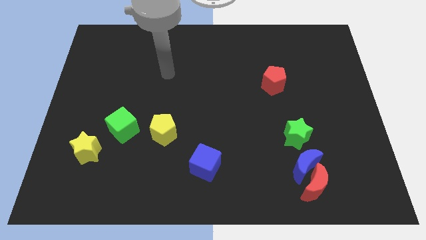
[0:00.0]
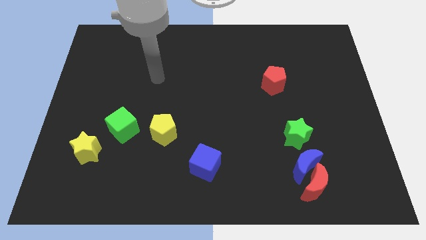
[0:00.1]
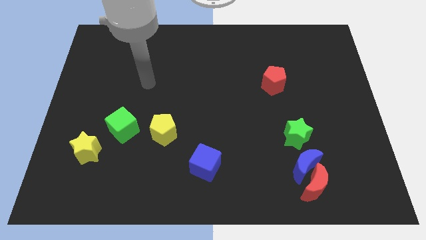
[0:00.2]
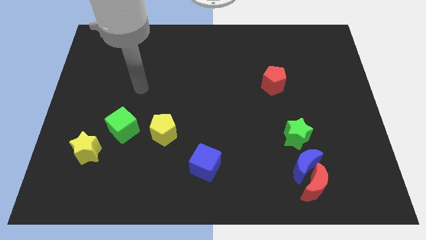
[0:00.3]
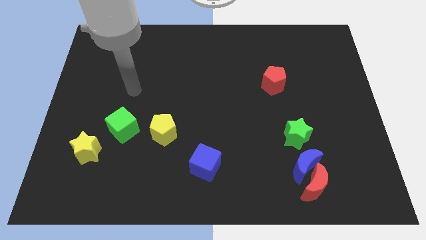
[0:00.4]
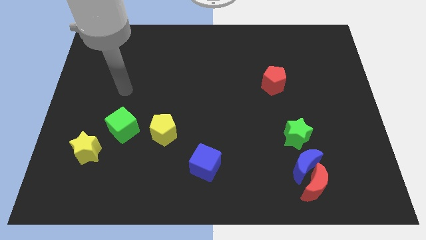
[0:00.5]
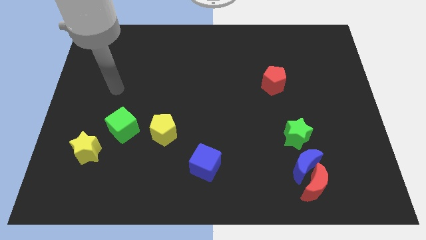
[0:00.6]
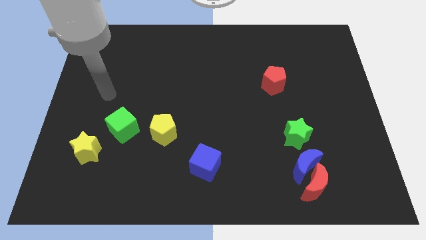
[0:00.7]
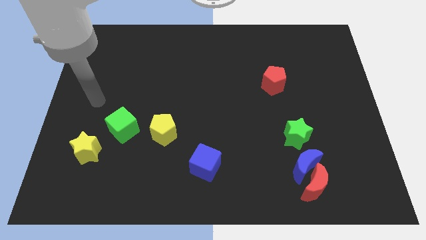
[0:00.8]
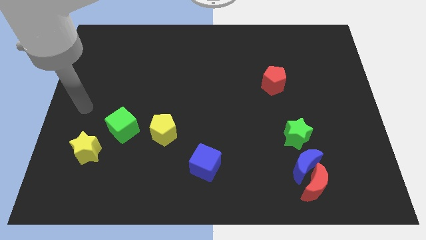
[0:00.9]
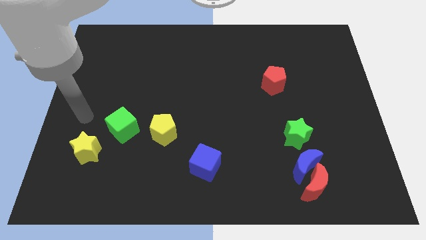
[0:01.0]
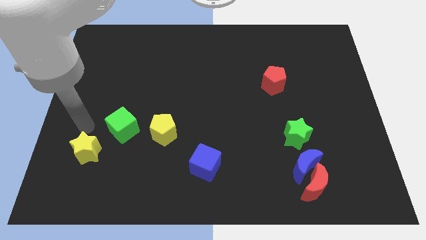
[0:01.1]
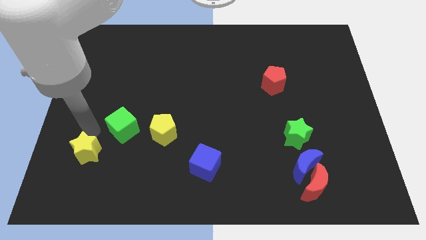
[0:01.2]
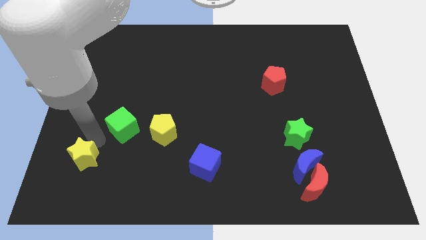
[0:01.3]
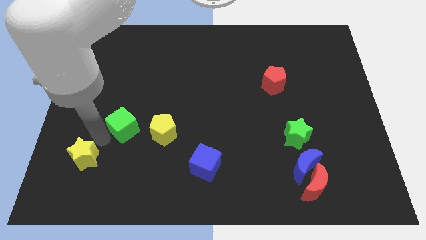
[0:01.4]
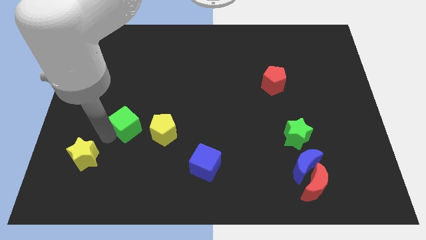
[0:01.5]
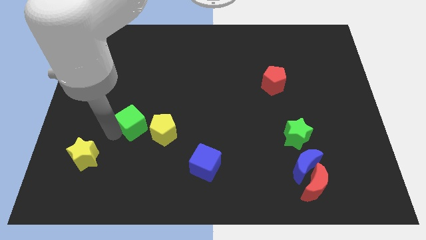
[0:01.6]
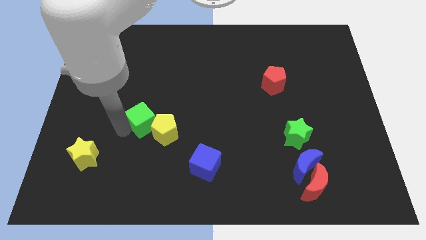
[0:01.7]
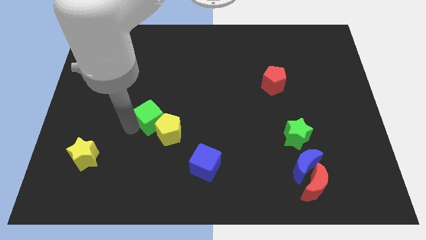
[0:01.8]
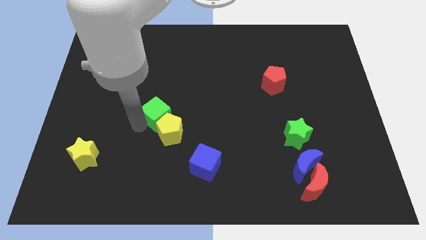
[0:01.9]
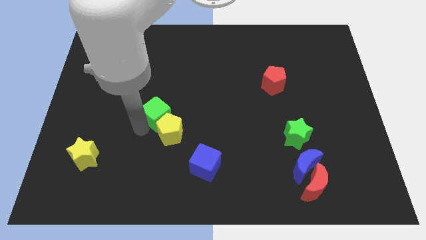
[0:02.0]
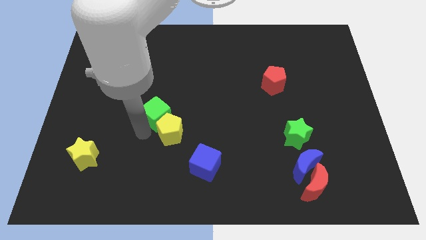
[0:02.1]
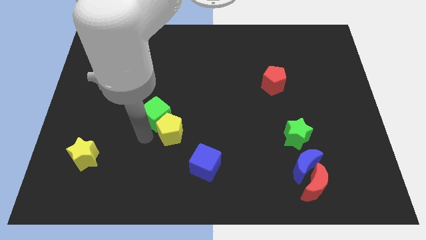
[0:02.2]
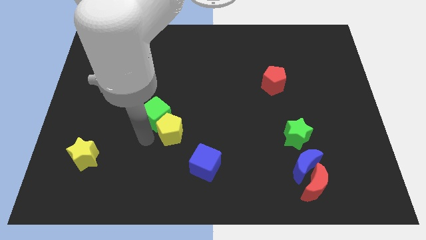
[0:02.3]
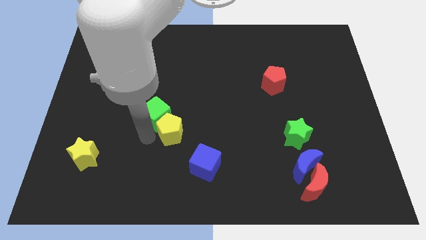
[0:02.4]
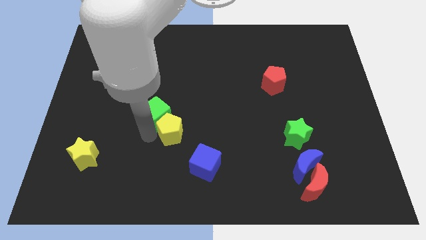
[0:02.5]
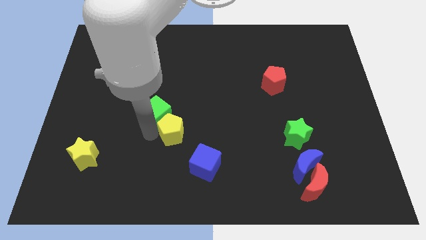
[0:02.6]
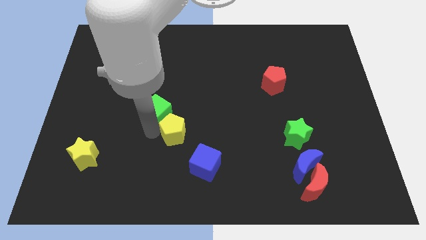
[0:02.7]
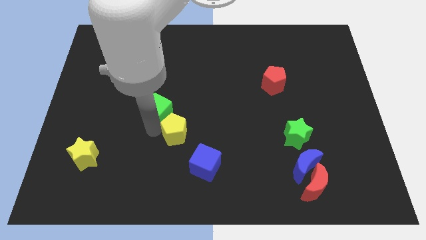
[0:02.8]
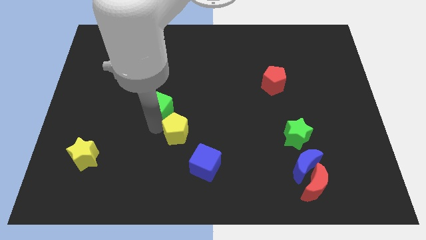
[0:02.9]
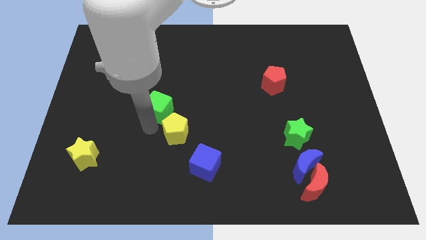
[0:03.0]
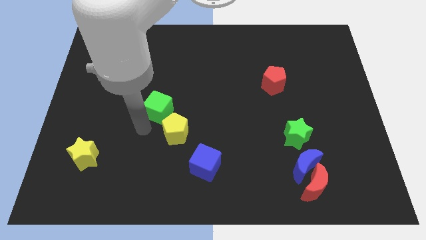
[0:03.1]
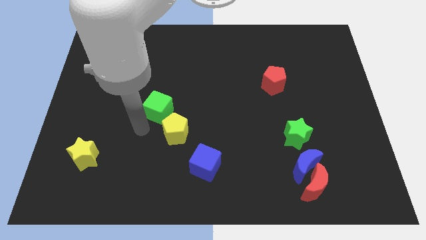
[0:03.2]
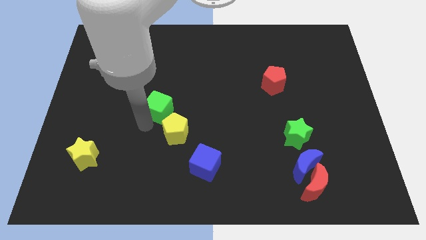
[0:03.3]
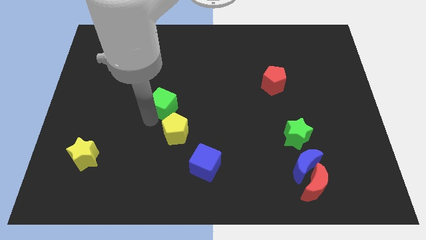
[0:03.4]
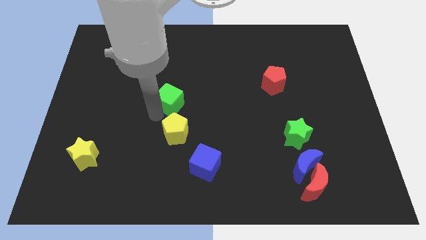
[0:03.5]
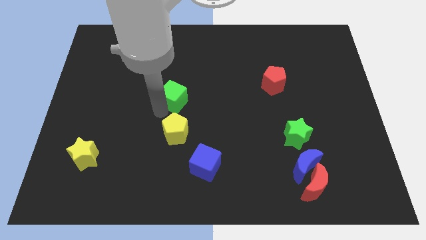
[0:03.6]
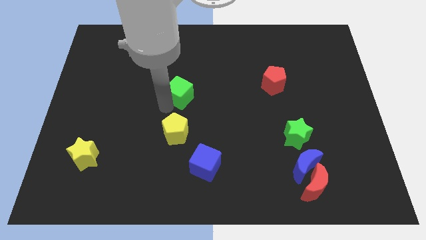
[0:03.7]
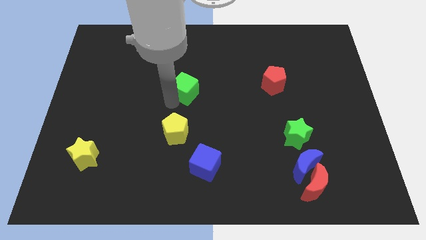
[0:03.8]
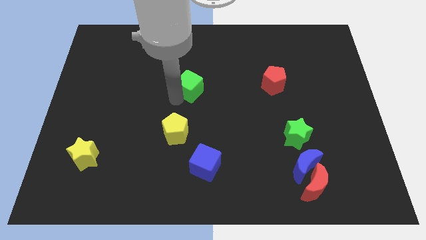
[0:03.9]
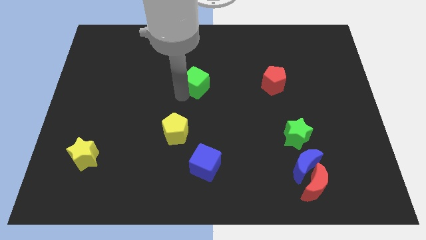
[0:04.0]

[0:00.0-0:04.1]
slide the green cube diagonally up and to the right

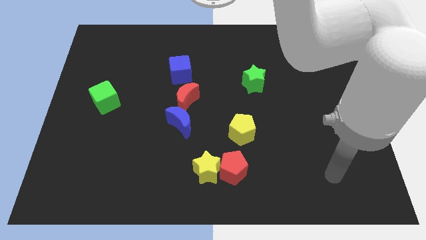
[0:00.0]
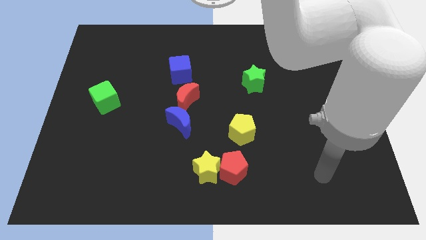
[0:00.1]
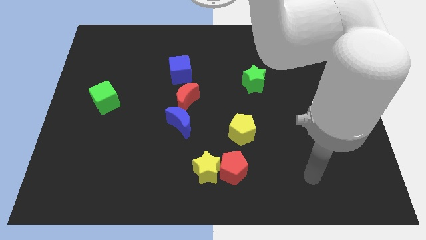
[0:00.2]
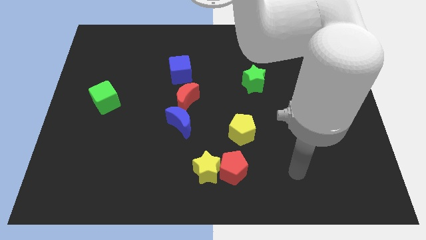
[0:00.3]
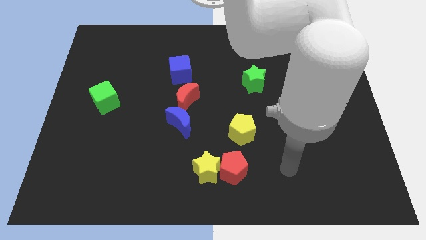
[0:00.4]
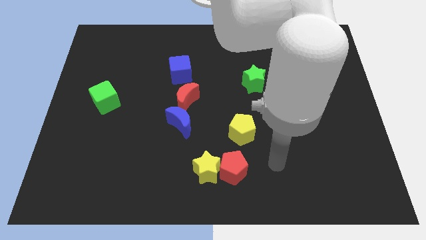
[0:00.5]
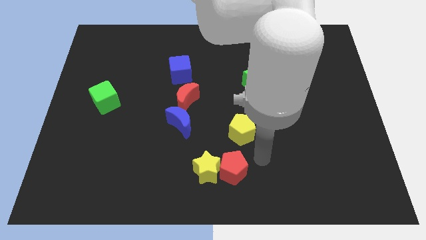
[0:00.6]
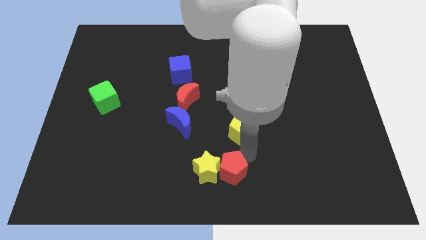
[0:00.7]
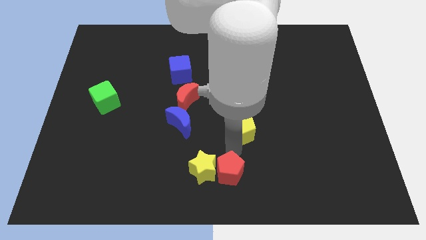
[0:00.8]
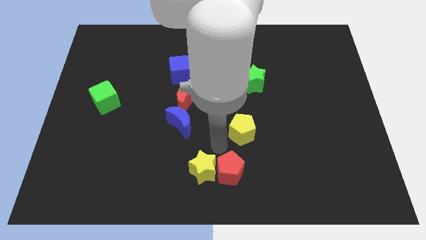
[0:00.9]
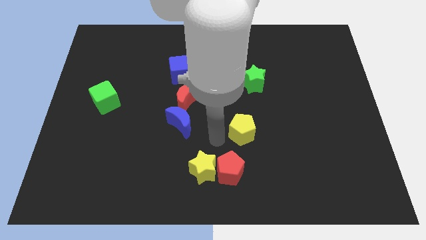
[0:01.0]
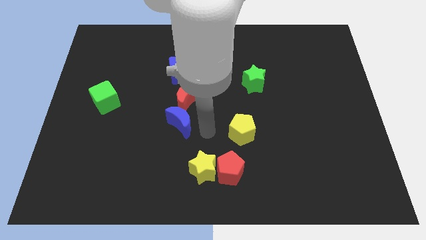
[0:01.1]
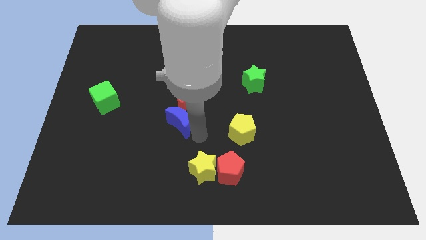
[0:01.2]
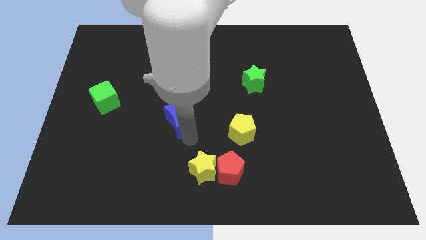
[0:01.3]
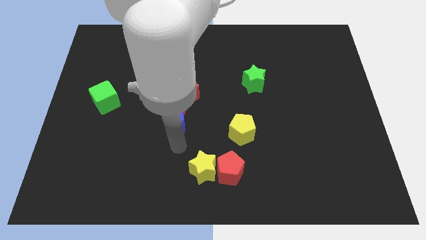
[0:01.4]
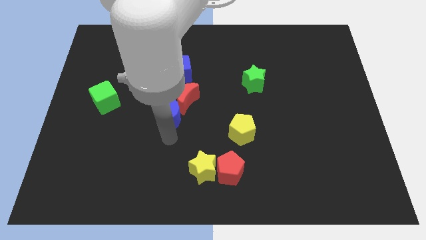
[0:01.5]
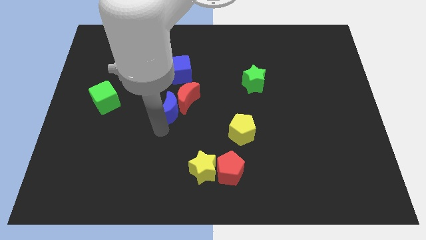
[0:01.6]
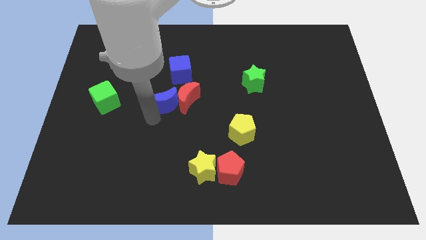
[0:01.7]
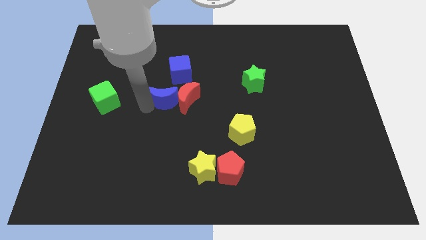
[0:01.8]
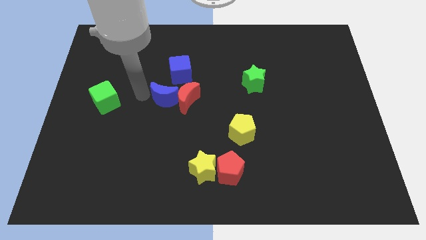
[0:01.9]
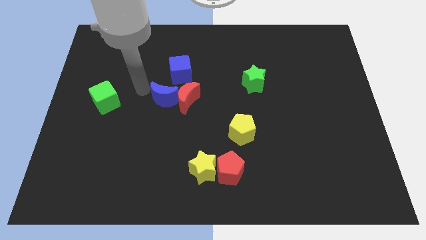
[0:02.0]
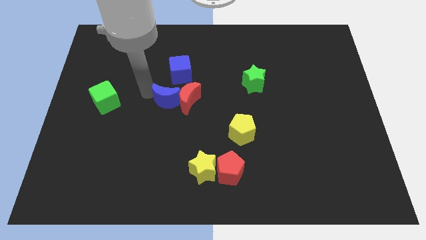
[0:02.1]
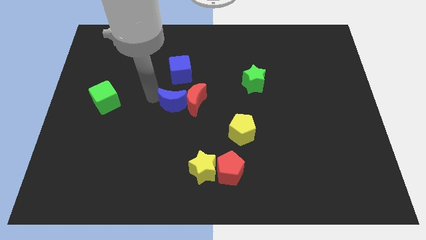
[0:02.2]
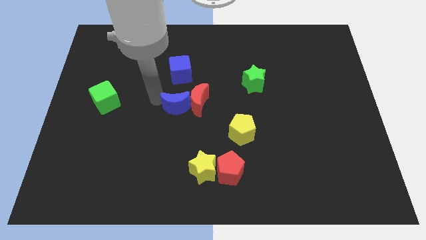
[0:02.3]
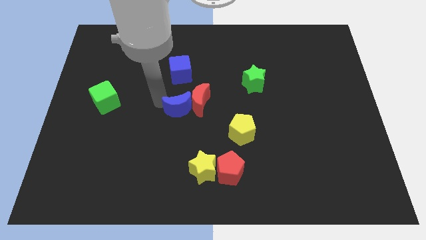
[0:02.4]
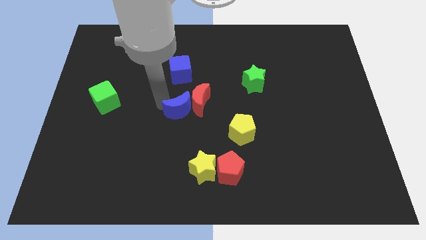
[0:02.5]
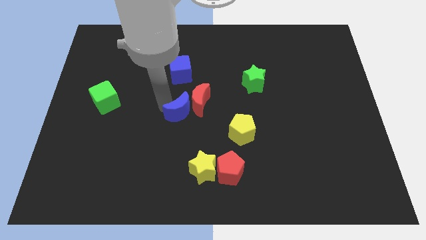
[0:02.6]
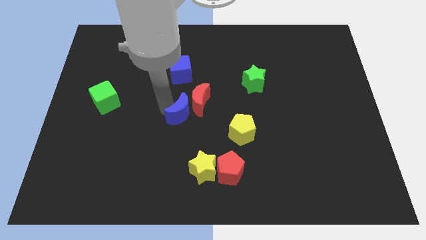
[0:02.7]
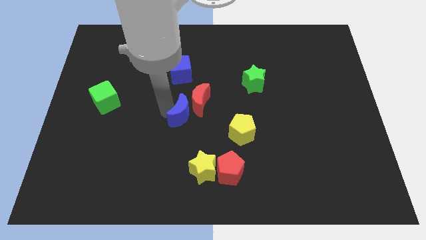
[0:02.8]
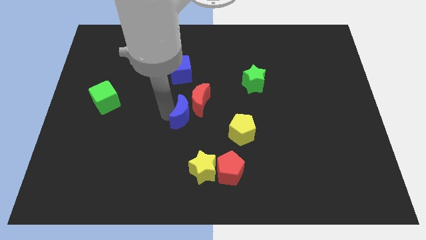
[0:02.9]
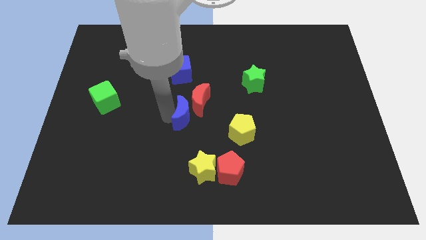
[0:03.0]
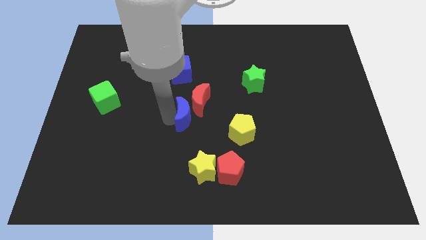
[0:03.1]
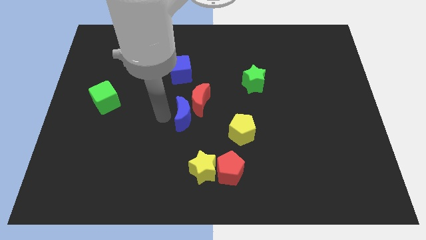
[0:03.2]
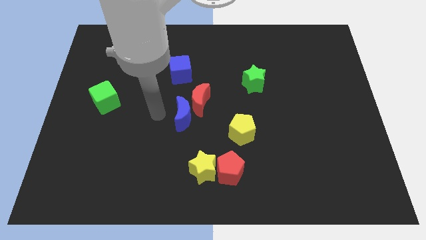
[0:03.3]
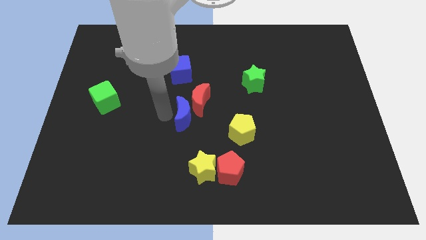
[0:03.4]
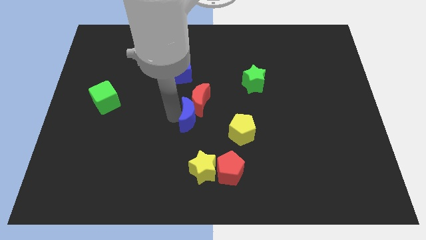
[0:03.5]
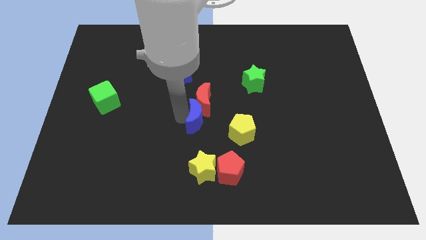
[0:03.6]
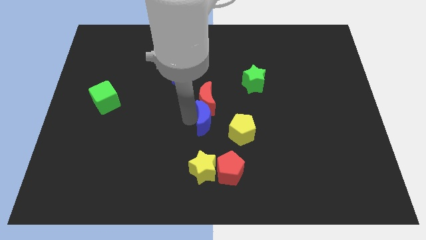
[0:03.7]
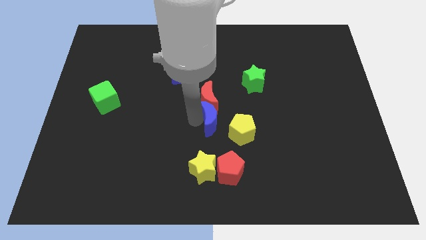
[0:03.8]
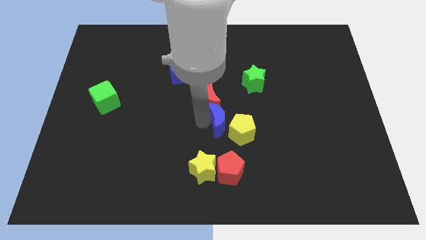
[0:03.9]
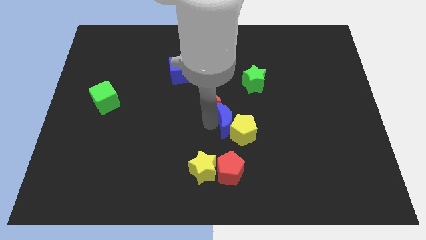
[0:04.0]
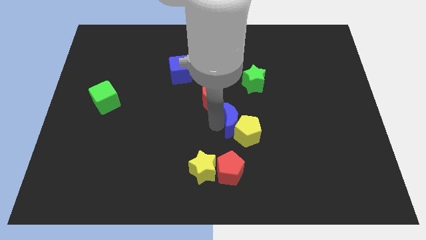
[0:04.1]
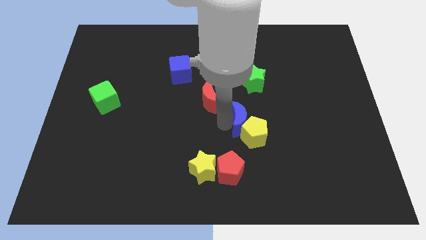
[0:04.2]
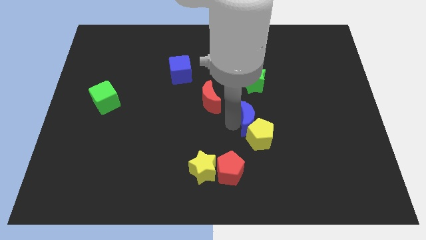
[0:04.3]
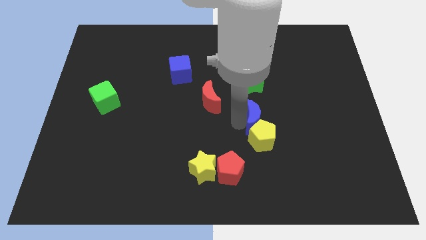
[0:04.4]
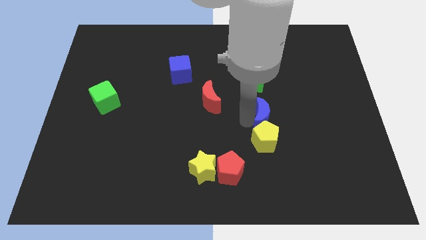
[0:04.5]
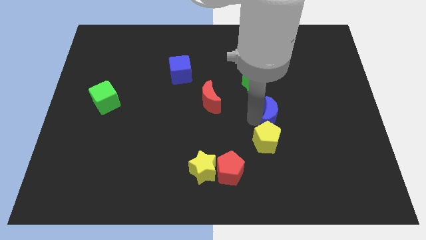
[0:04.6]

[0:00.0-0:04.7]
slide the blue moon right
